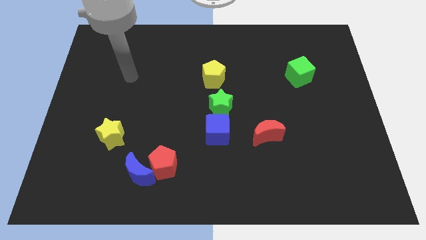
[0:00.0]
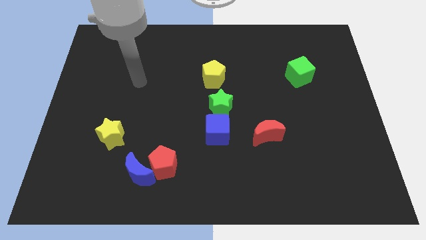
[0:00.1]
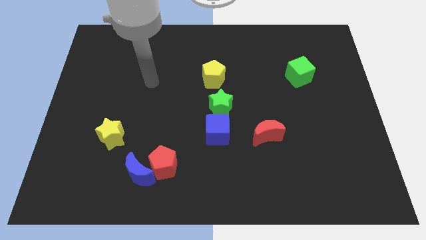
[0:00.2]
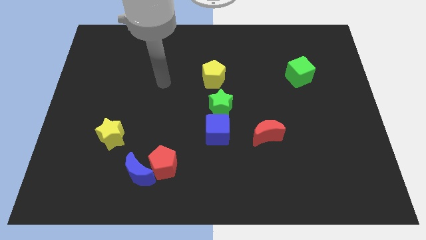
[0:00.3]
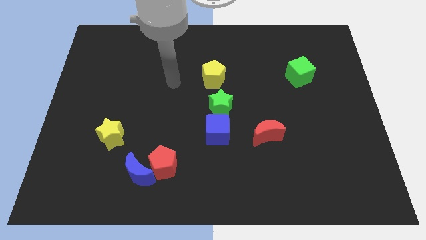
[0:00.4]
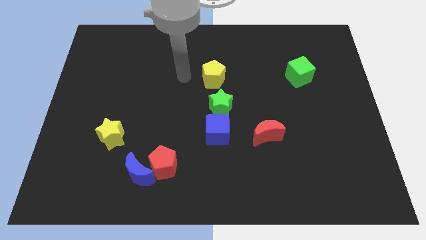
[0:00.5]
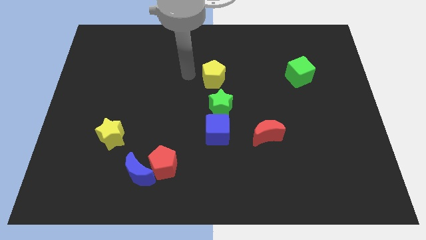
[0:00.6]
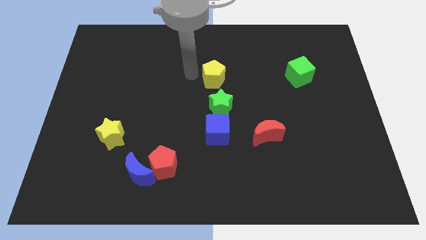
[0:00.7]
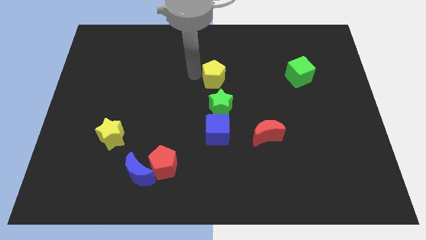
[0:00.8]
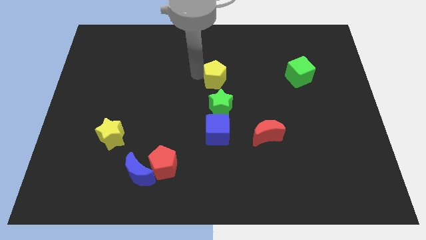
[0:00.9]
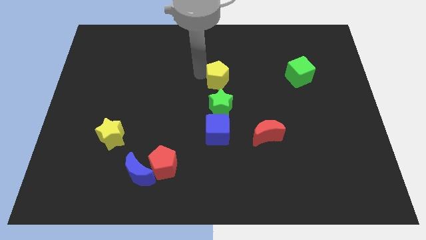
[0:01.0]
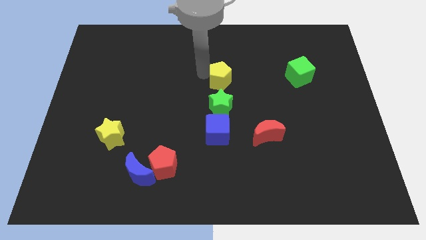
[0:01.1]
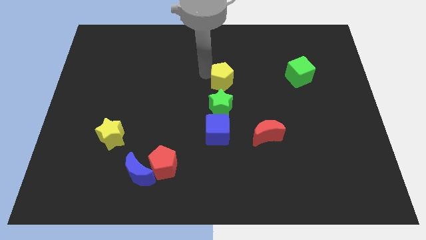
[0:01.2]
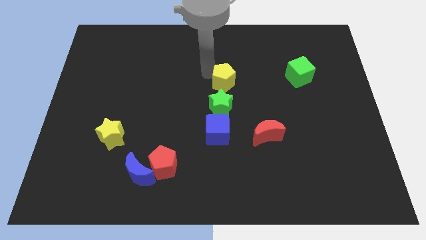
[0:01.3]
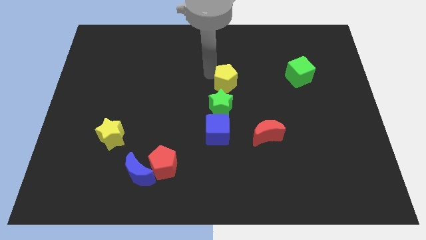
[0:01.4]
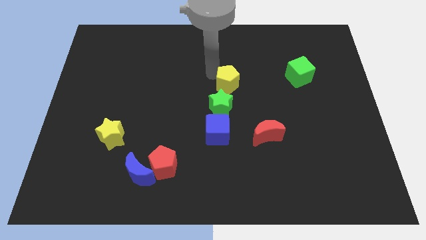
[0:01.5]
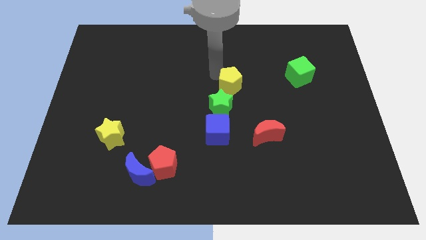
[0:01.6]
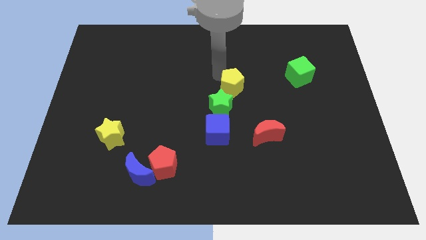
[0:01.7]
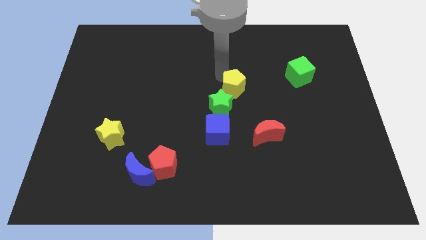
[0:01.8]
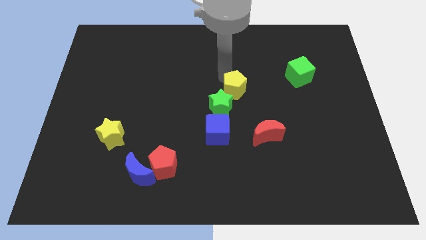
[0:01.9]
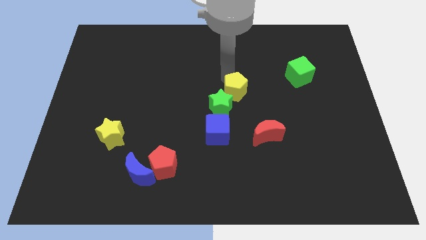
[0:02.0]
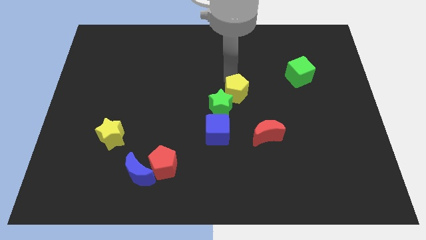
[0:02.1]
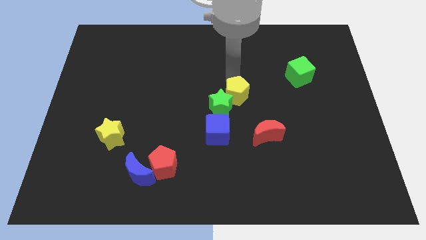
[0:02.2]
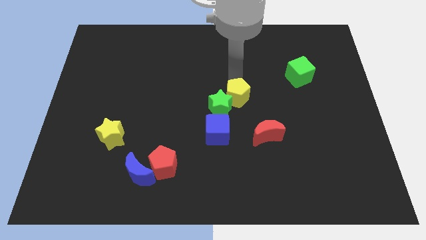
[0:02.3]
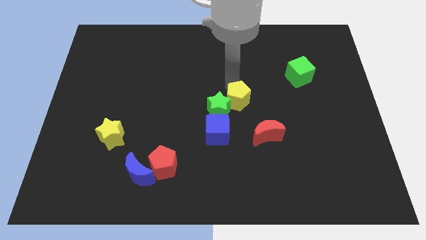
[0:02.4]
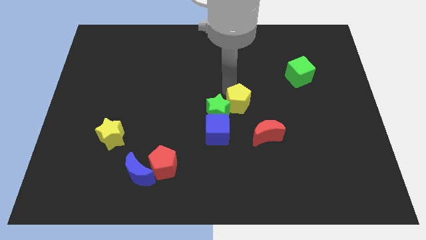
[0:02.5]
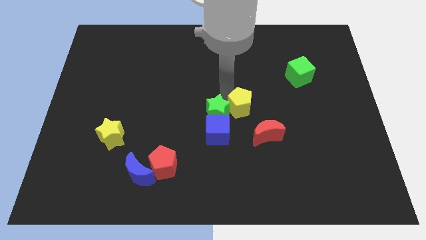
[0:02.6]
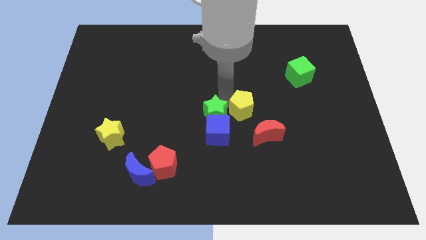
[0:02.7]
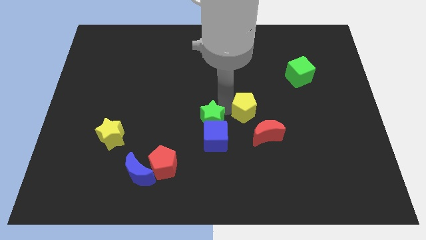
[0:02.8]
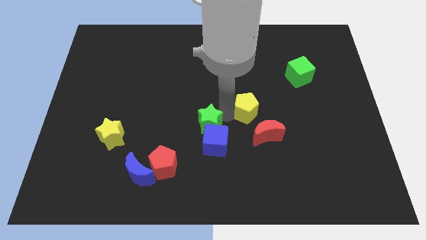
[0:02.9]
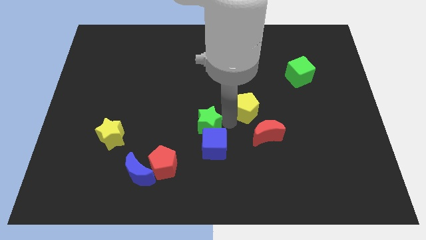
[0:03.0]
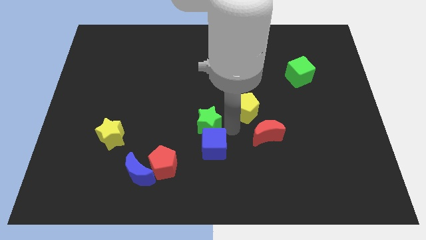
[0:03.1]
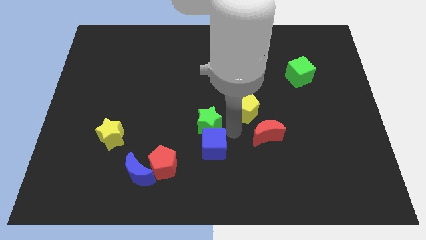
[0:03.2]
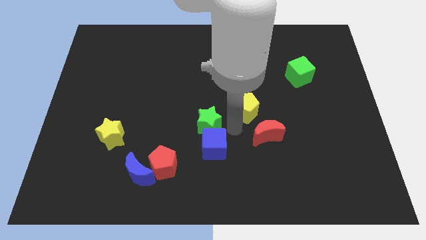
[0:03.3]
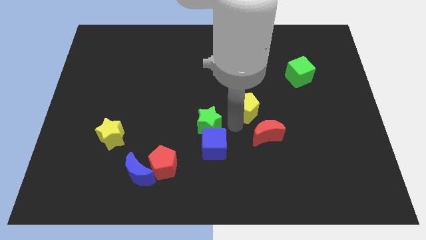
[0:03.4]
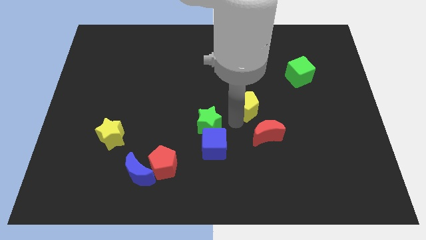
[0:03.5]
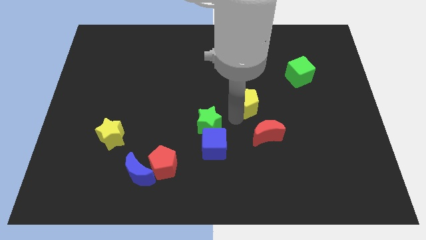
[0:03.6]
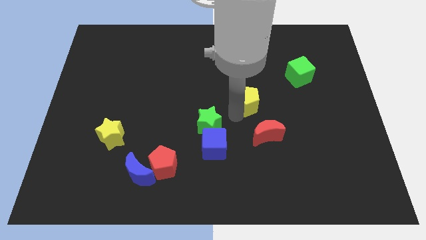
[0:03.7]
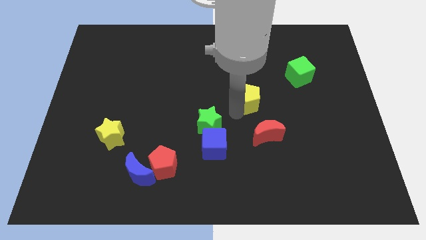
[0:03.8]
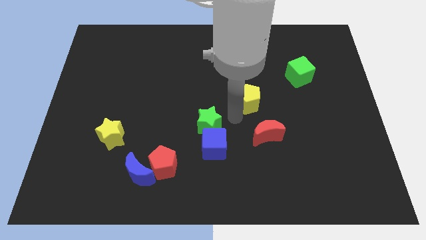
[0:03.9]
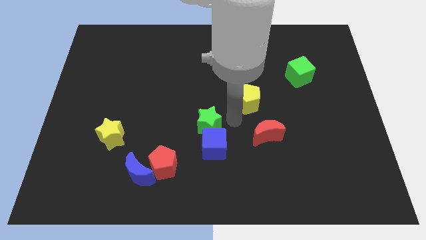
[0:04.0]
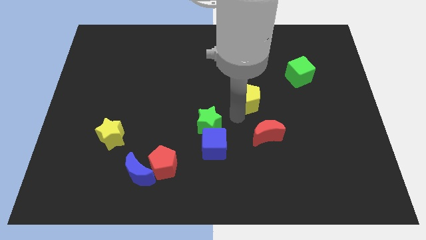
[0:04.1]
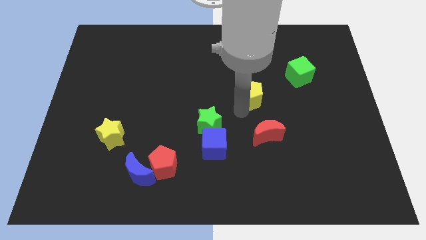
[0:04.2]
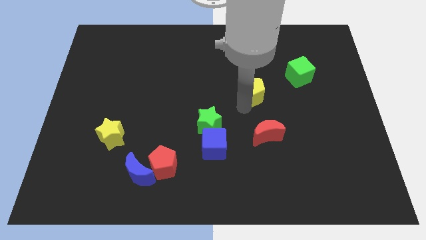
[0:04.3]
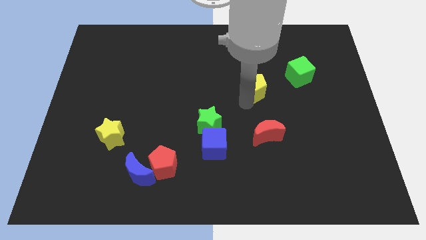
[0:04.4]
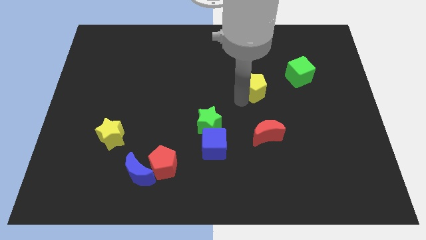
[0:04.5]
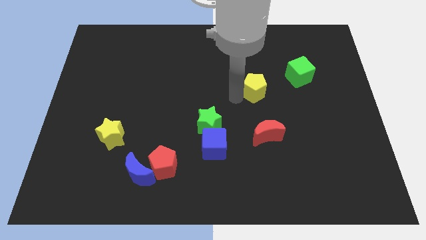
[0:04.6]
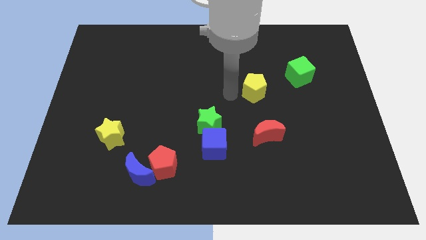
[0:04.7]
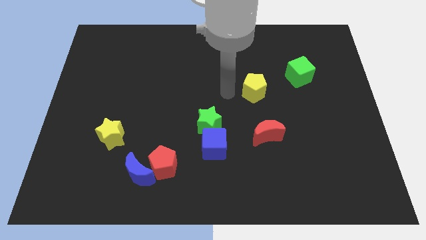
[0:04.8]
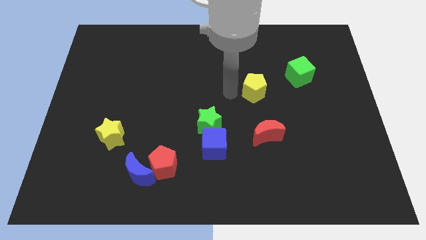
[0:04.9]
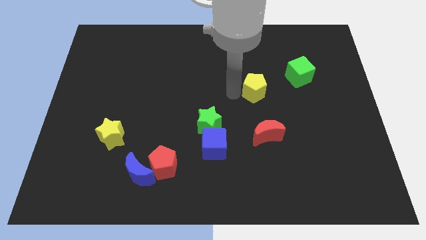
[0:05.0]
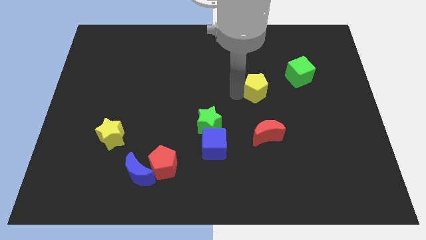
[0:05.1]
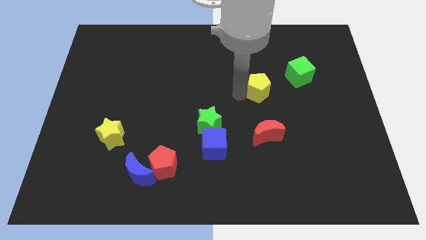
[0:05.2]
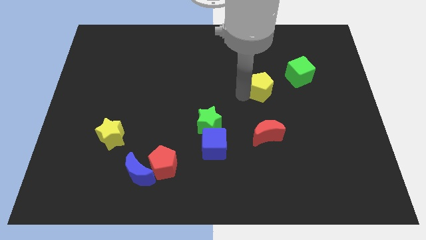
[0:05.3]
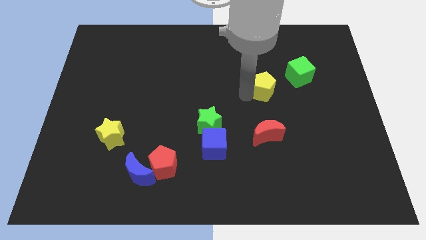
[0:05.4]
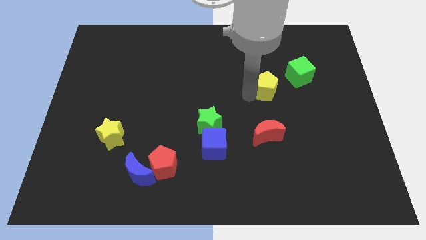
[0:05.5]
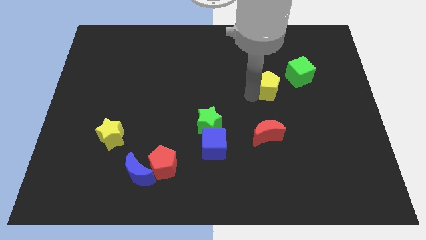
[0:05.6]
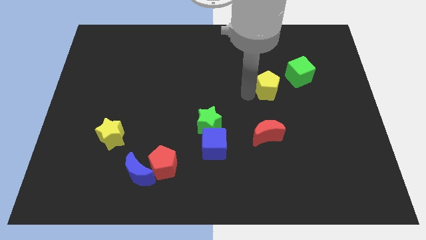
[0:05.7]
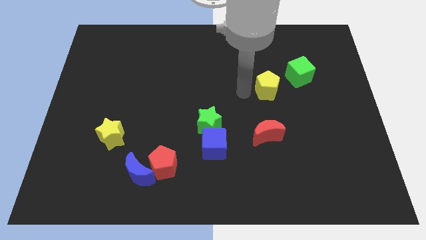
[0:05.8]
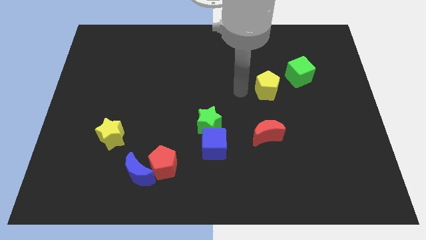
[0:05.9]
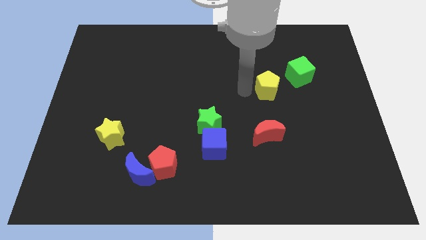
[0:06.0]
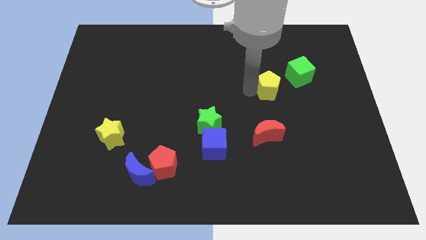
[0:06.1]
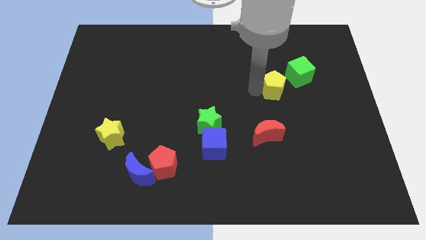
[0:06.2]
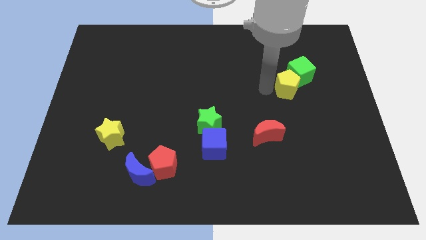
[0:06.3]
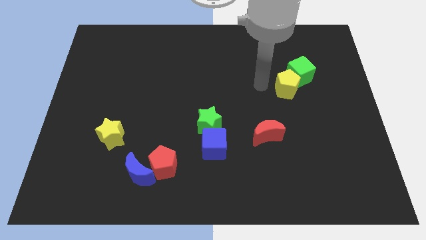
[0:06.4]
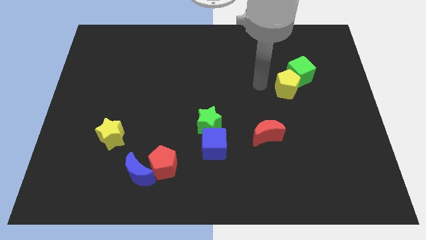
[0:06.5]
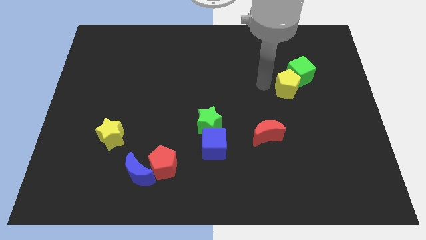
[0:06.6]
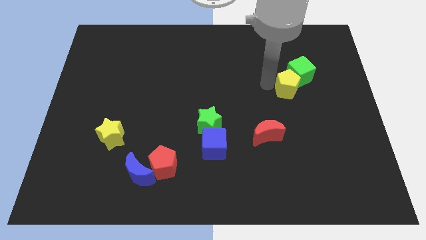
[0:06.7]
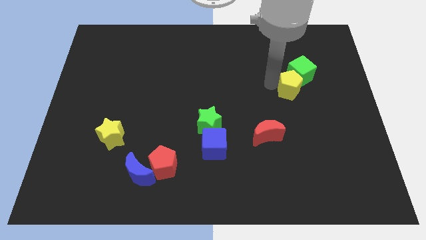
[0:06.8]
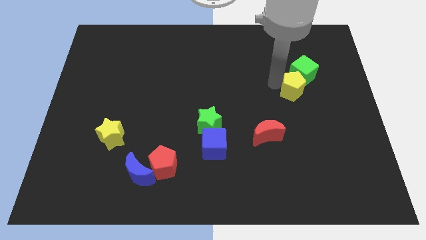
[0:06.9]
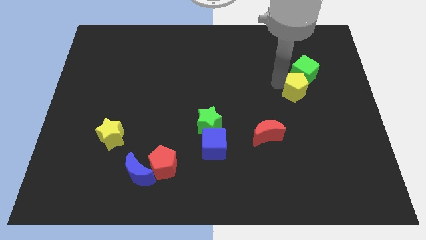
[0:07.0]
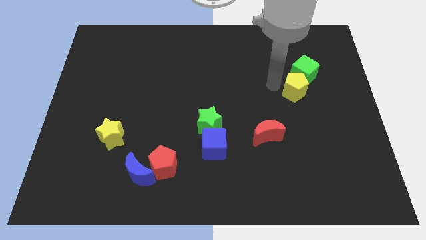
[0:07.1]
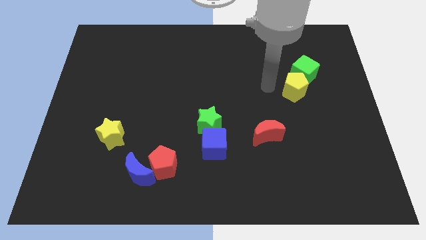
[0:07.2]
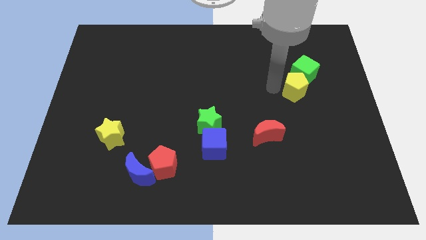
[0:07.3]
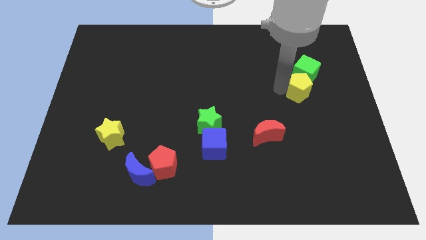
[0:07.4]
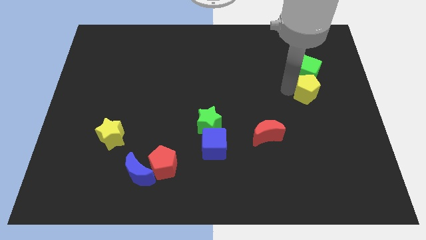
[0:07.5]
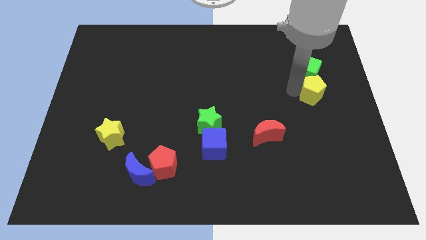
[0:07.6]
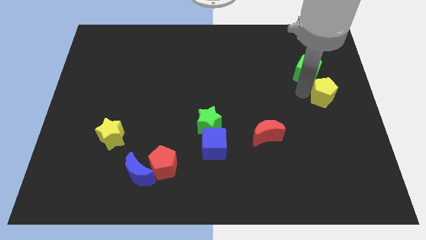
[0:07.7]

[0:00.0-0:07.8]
put the yellow pentagon to the right side
